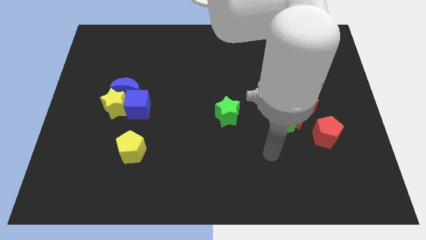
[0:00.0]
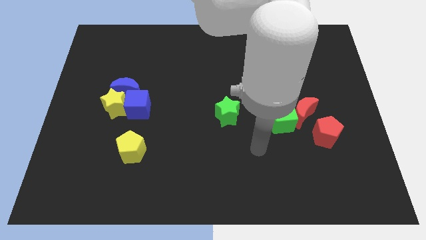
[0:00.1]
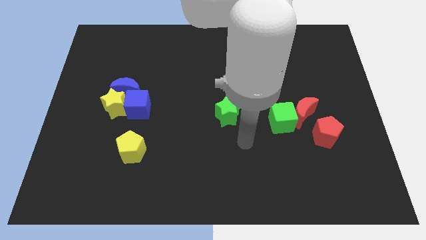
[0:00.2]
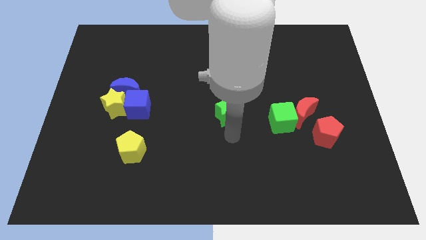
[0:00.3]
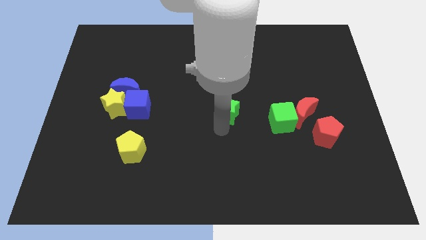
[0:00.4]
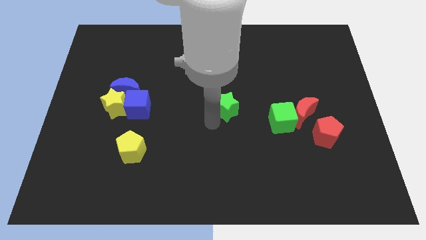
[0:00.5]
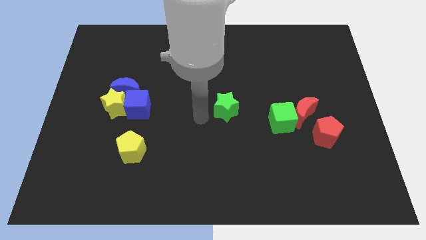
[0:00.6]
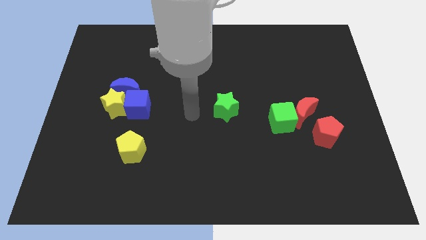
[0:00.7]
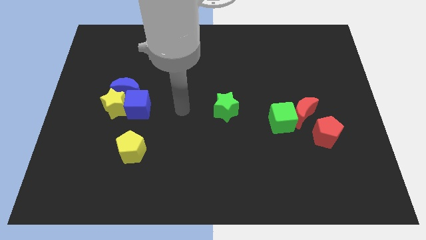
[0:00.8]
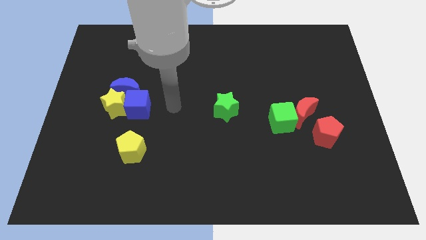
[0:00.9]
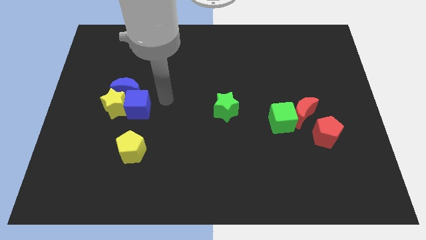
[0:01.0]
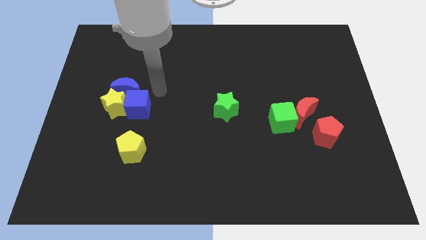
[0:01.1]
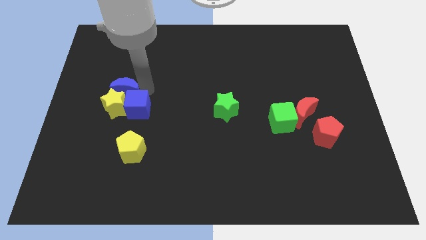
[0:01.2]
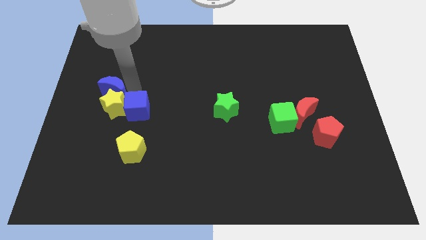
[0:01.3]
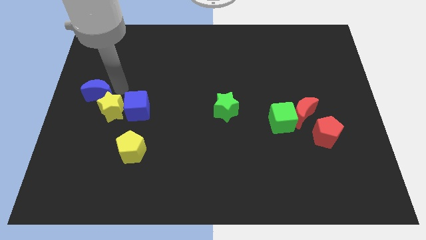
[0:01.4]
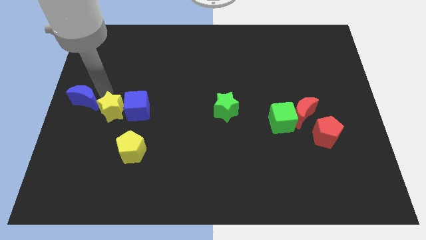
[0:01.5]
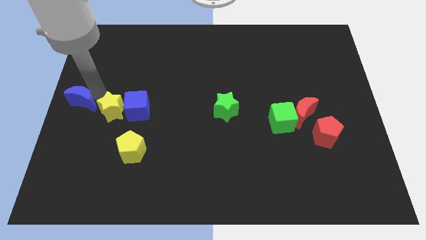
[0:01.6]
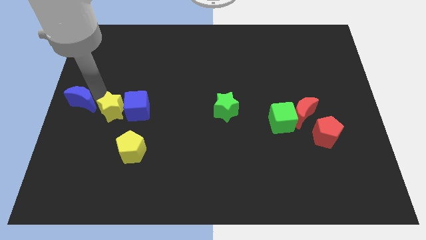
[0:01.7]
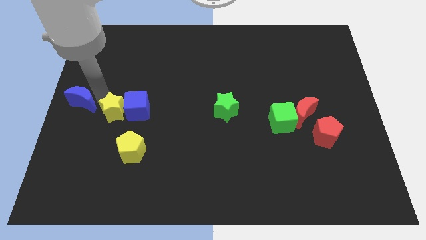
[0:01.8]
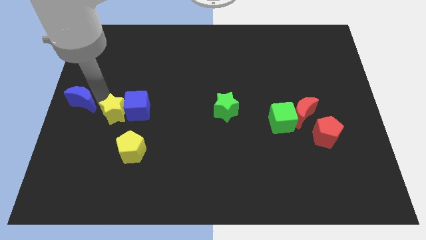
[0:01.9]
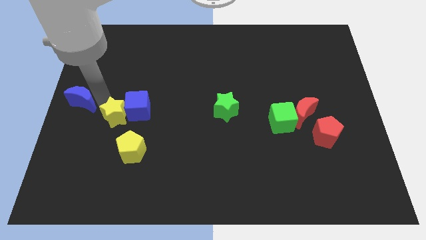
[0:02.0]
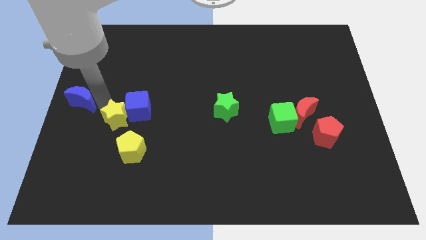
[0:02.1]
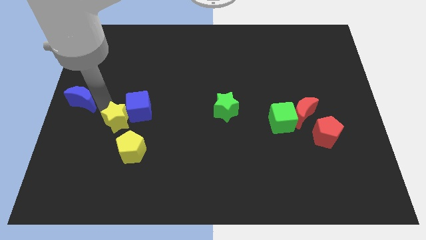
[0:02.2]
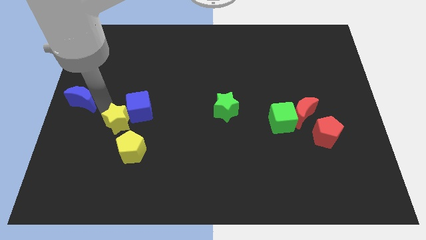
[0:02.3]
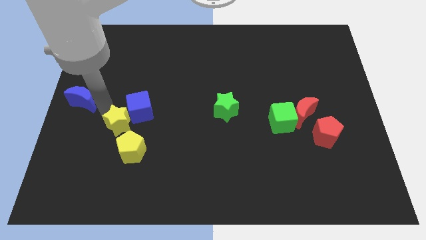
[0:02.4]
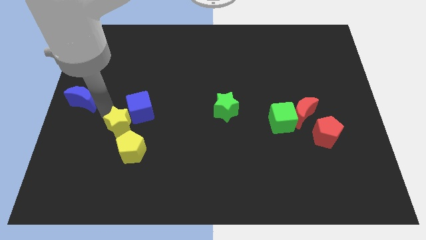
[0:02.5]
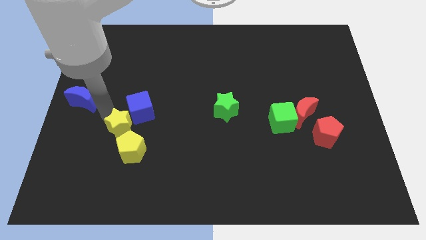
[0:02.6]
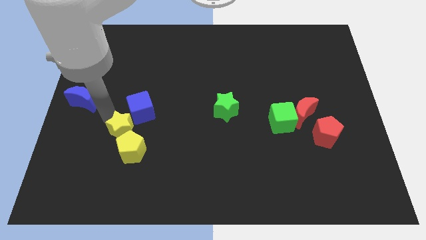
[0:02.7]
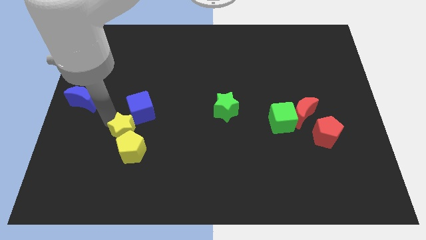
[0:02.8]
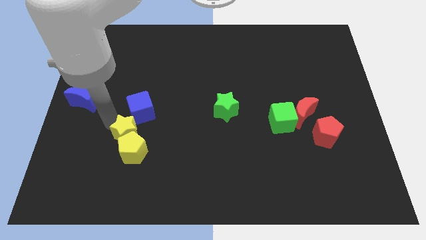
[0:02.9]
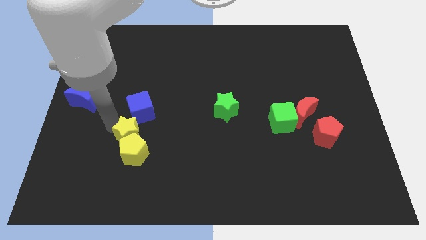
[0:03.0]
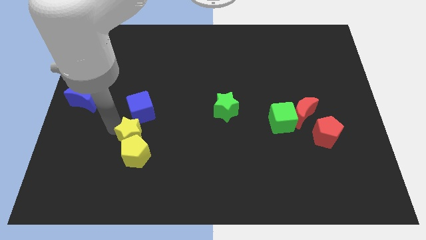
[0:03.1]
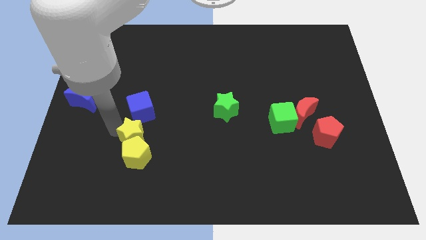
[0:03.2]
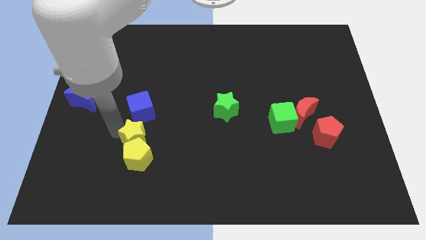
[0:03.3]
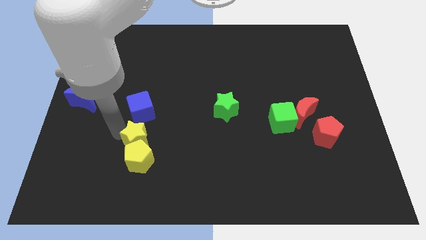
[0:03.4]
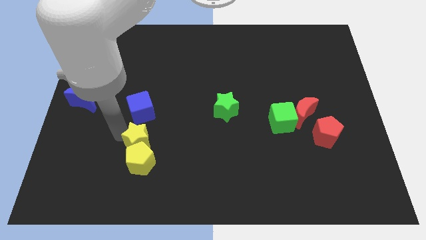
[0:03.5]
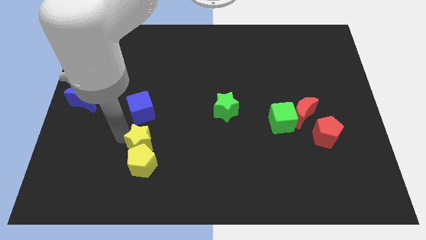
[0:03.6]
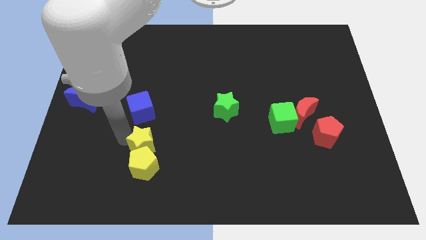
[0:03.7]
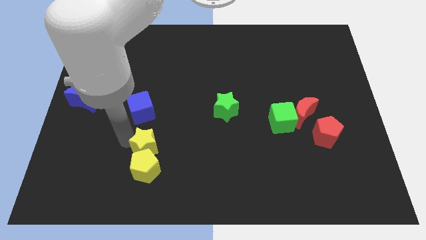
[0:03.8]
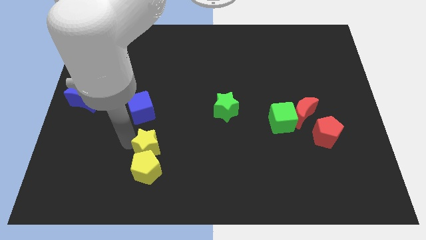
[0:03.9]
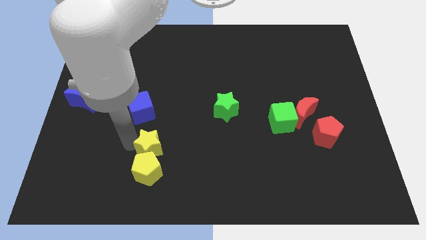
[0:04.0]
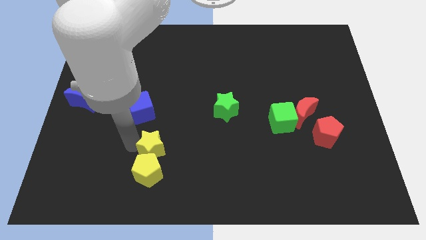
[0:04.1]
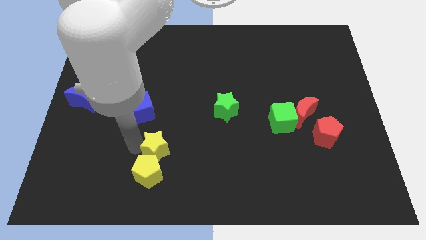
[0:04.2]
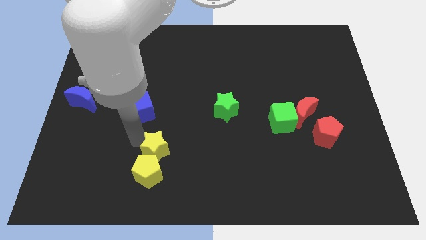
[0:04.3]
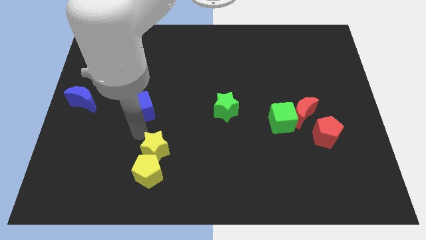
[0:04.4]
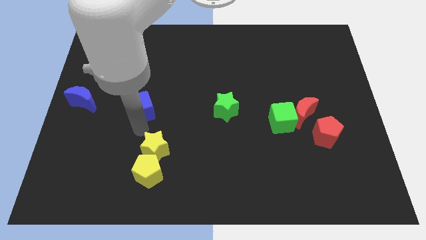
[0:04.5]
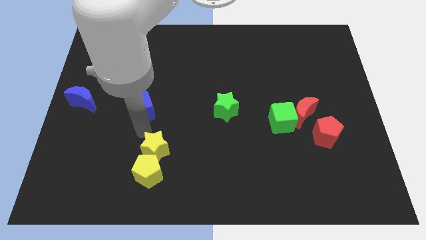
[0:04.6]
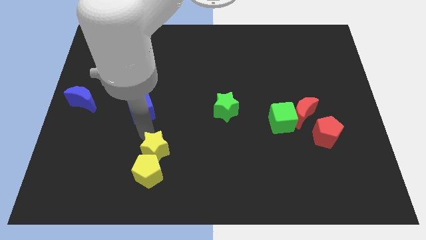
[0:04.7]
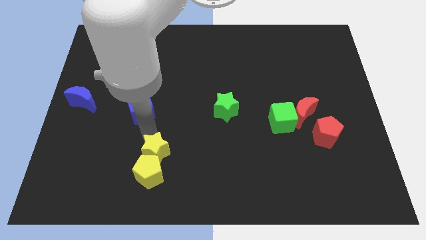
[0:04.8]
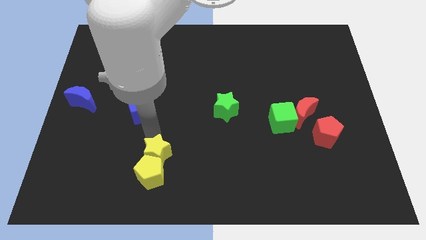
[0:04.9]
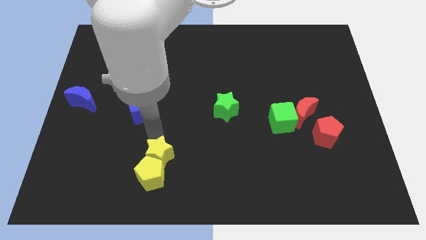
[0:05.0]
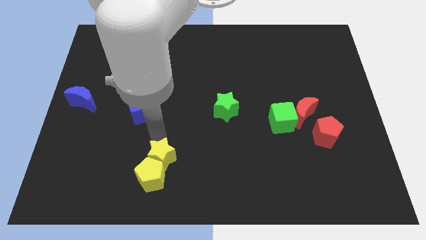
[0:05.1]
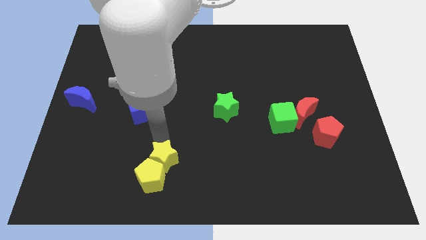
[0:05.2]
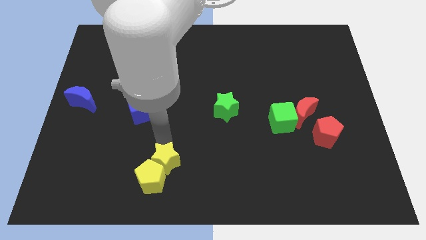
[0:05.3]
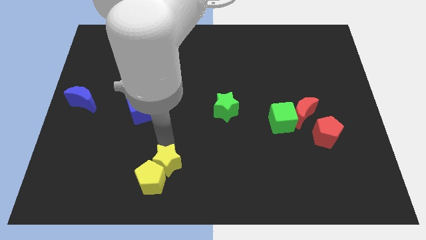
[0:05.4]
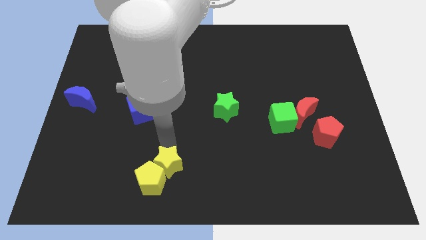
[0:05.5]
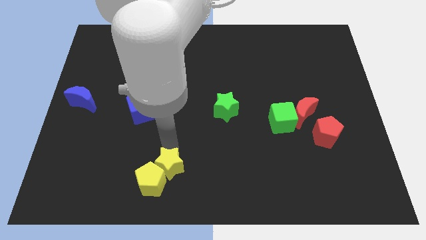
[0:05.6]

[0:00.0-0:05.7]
push the yellow star to the bottom

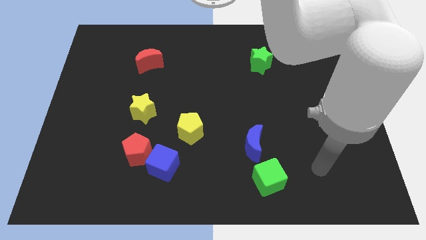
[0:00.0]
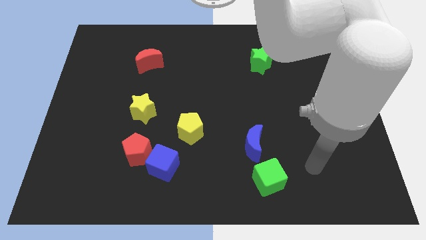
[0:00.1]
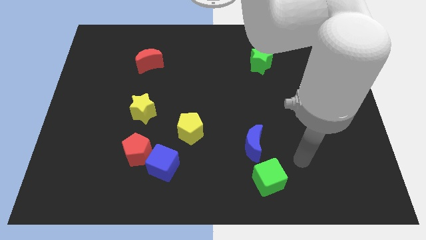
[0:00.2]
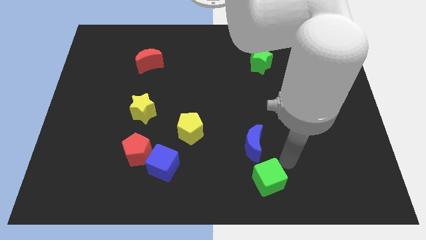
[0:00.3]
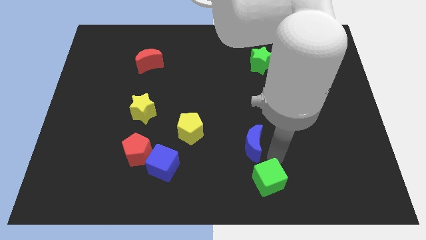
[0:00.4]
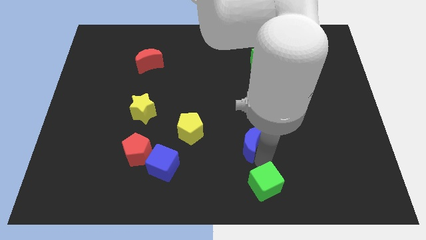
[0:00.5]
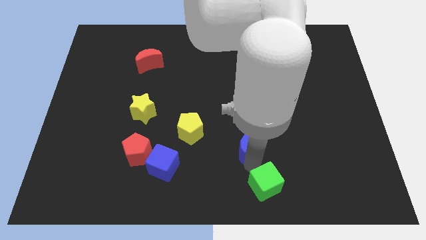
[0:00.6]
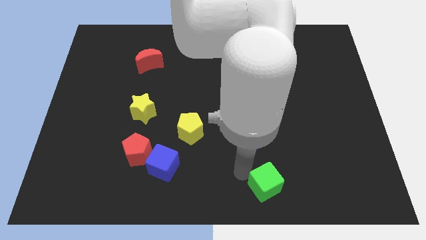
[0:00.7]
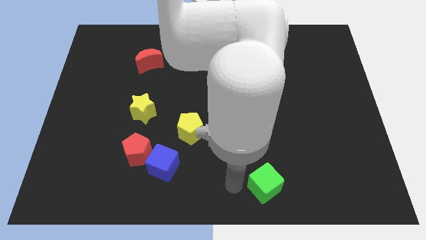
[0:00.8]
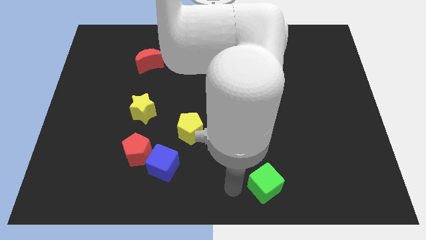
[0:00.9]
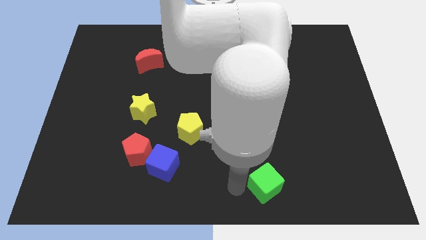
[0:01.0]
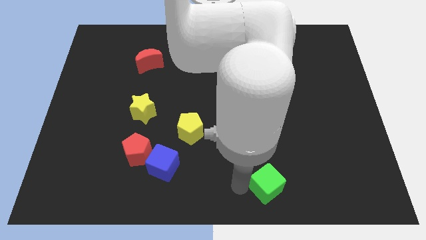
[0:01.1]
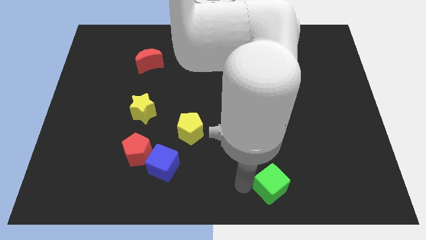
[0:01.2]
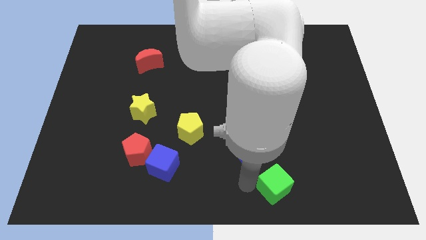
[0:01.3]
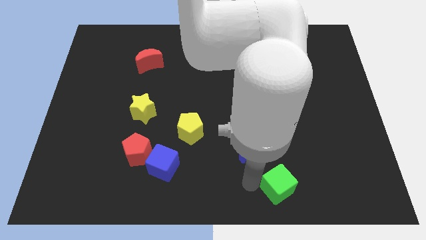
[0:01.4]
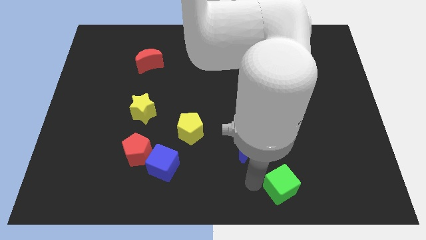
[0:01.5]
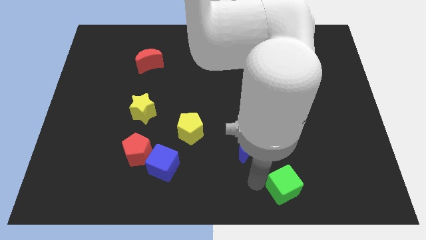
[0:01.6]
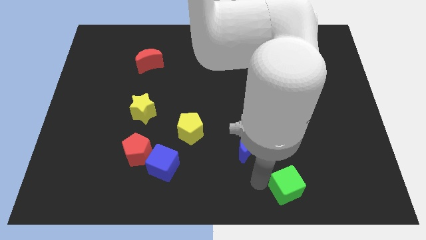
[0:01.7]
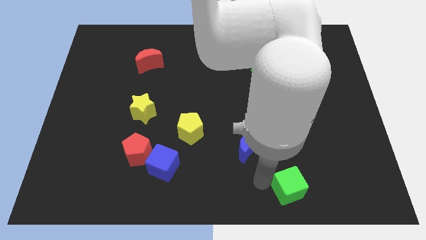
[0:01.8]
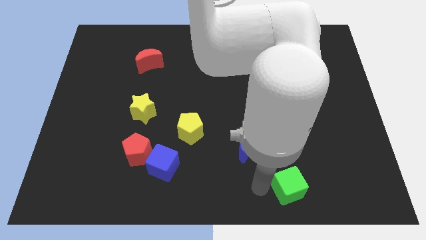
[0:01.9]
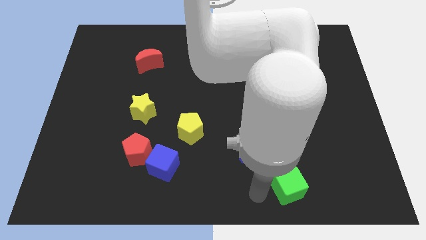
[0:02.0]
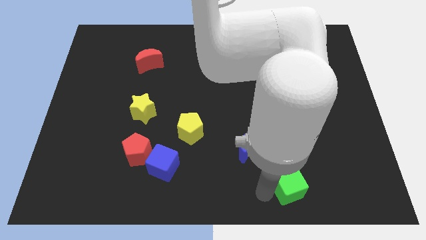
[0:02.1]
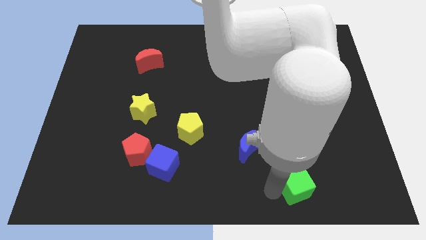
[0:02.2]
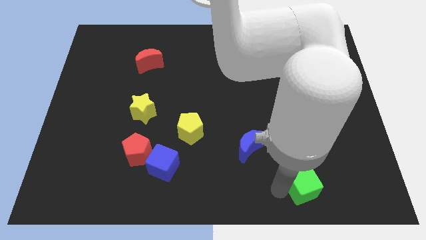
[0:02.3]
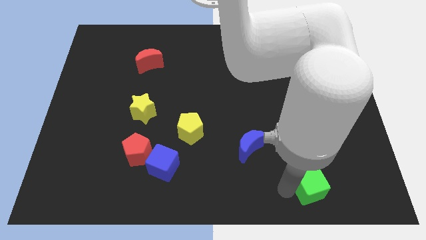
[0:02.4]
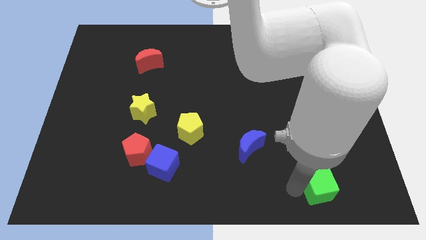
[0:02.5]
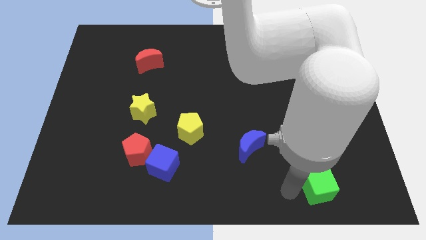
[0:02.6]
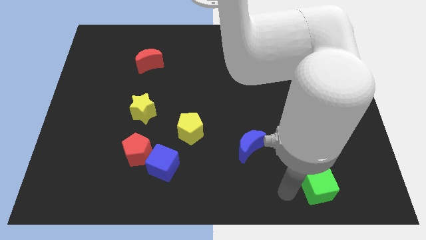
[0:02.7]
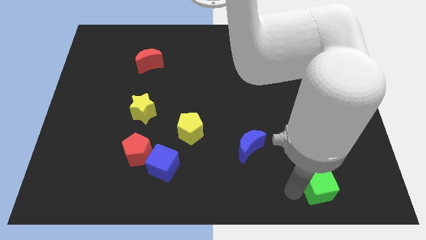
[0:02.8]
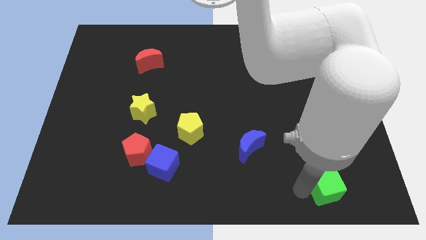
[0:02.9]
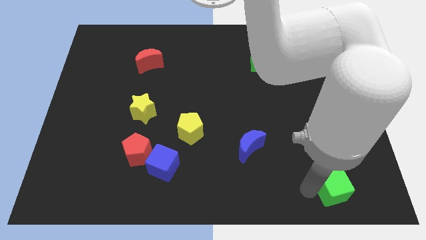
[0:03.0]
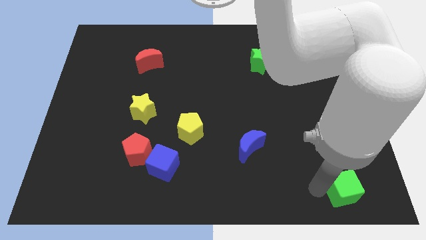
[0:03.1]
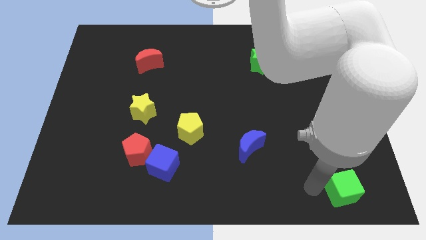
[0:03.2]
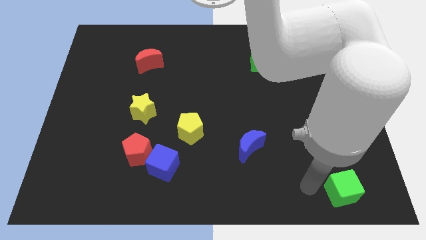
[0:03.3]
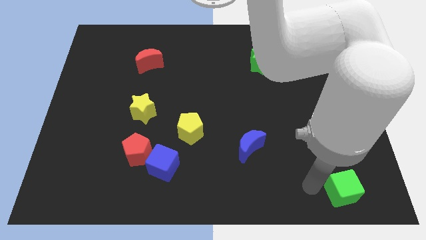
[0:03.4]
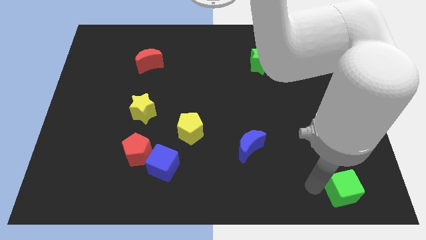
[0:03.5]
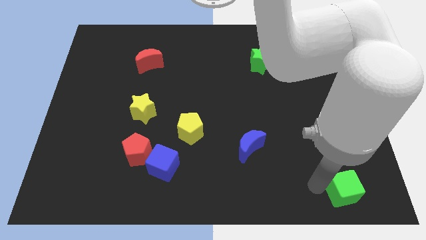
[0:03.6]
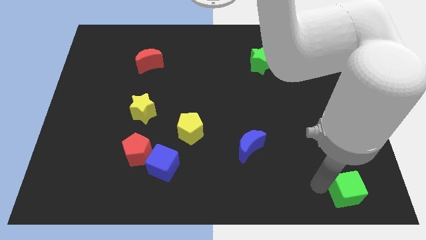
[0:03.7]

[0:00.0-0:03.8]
put the green cube to the bottom right of the board
